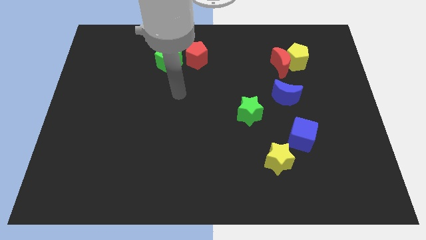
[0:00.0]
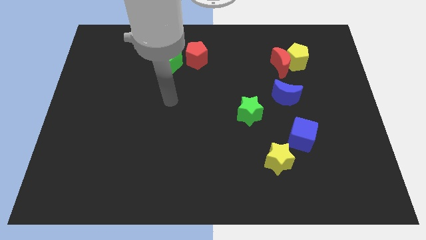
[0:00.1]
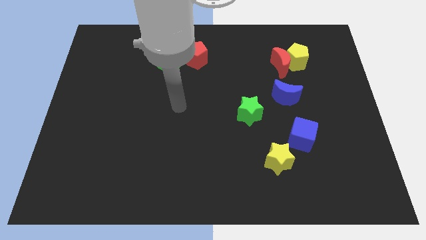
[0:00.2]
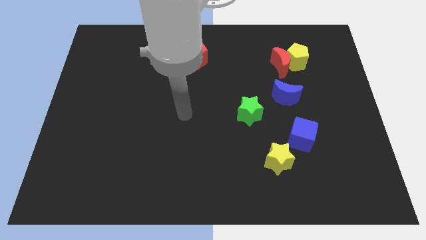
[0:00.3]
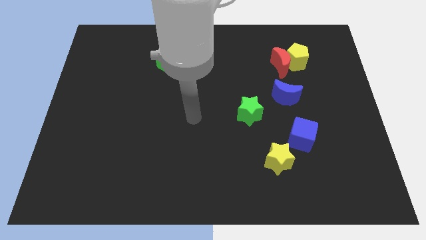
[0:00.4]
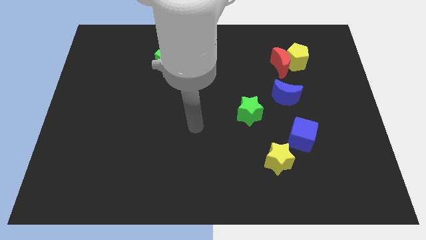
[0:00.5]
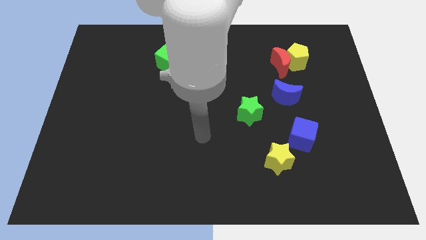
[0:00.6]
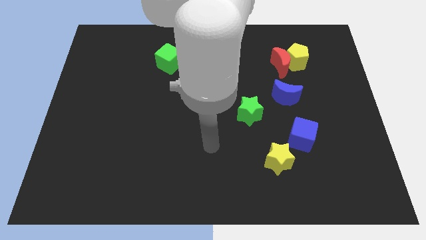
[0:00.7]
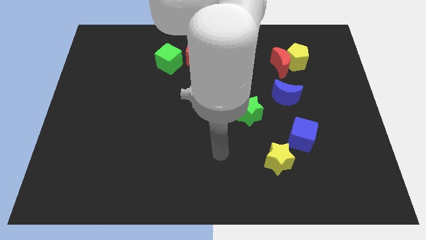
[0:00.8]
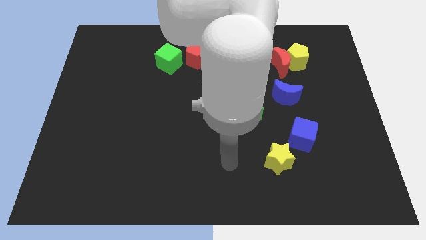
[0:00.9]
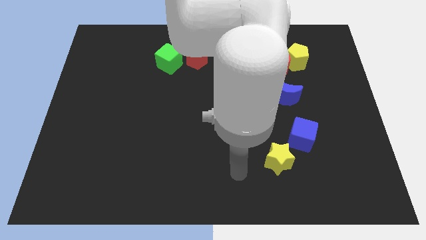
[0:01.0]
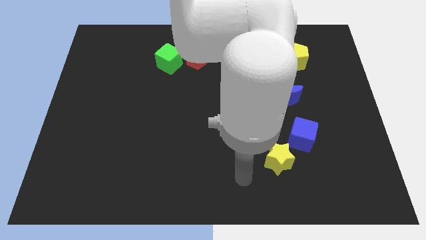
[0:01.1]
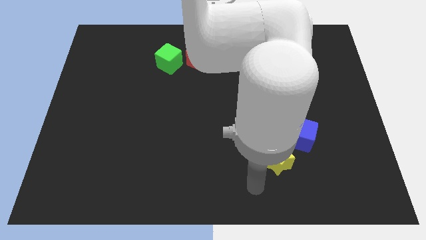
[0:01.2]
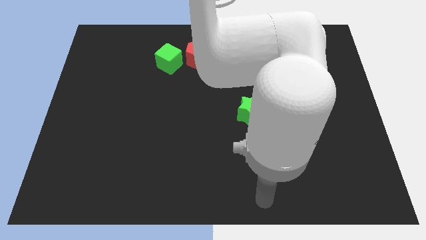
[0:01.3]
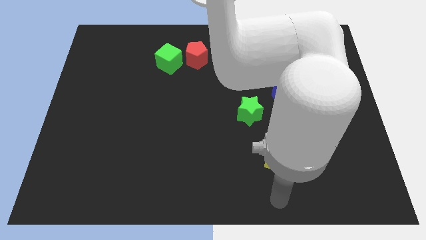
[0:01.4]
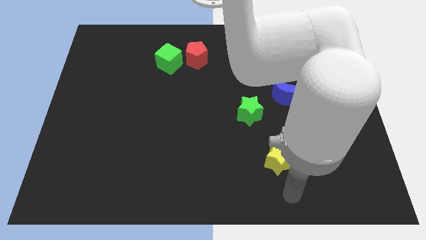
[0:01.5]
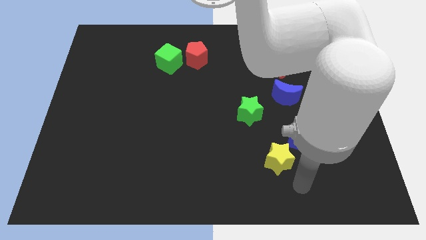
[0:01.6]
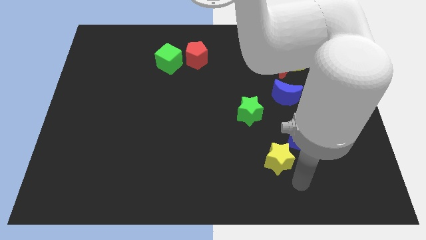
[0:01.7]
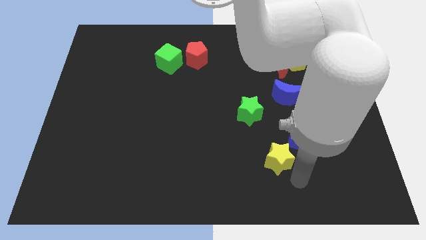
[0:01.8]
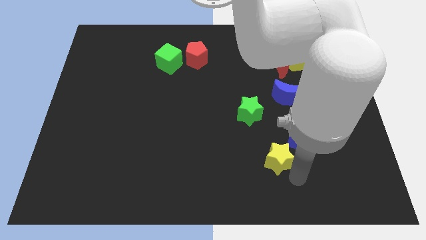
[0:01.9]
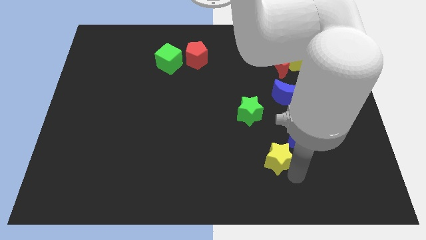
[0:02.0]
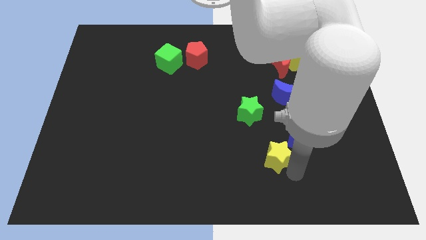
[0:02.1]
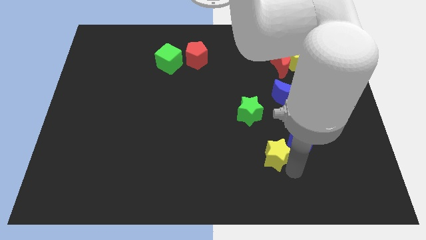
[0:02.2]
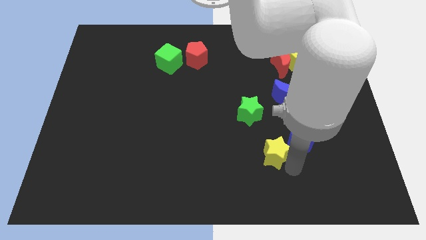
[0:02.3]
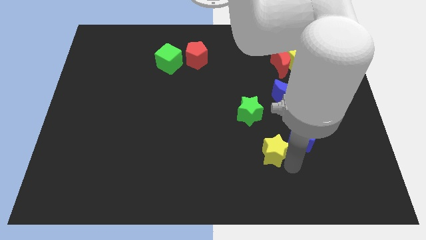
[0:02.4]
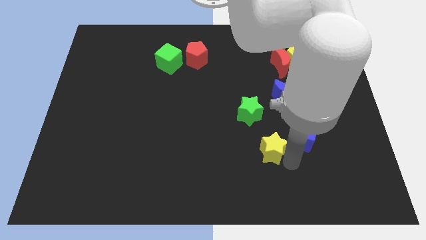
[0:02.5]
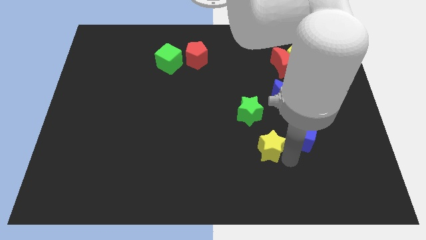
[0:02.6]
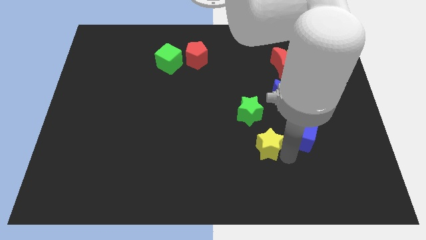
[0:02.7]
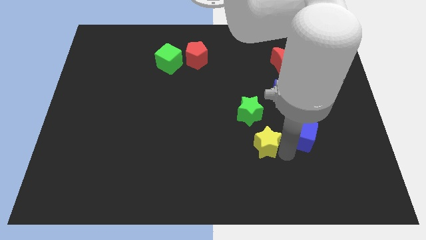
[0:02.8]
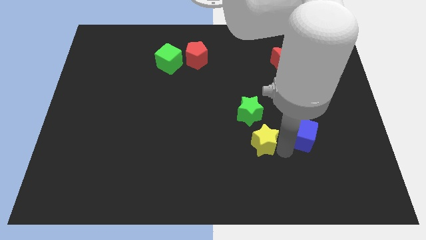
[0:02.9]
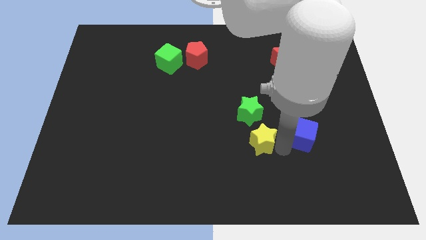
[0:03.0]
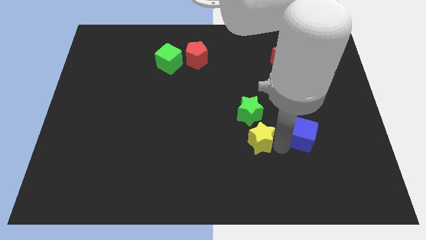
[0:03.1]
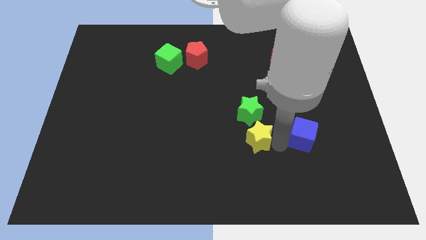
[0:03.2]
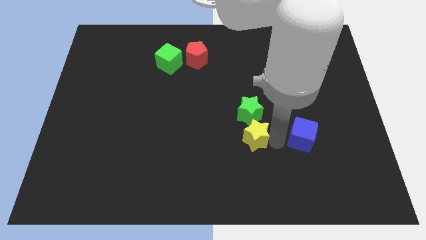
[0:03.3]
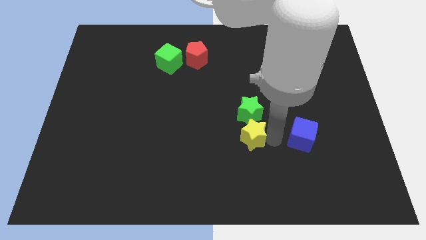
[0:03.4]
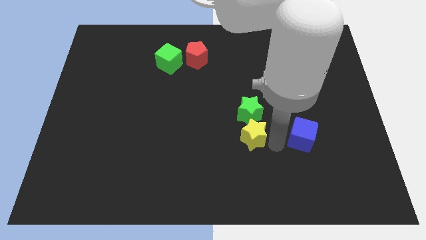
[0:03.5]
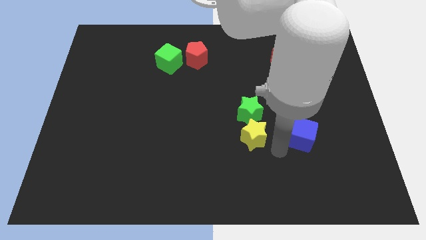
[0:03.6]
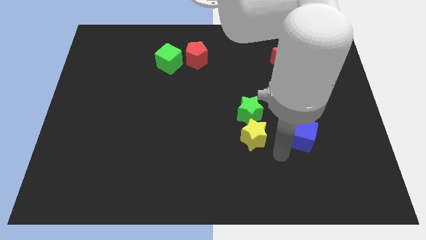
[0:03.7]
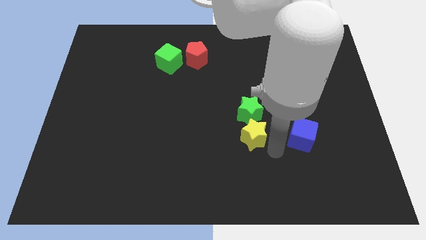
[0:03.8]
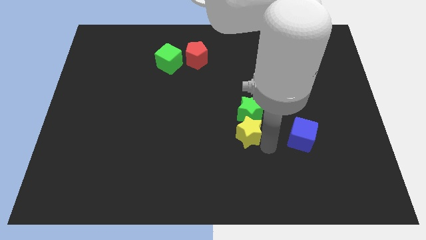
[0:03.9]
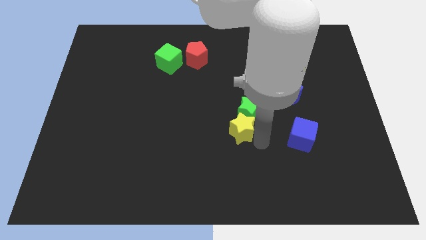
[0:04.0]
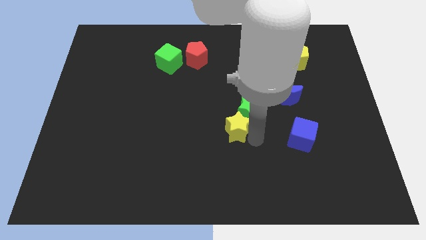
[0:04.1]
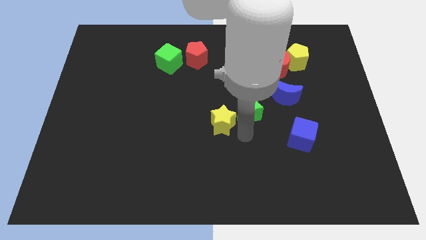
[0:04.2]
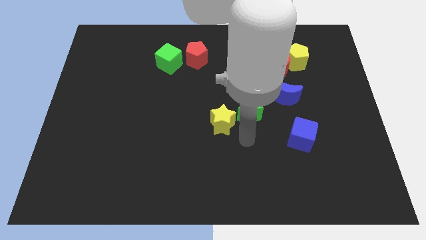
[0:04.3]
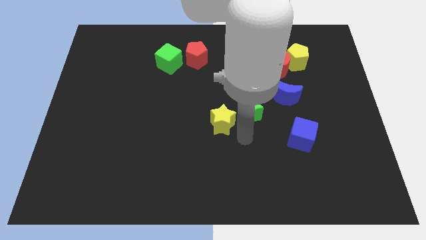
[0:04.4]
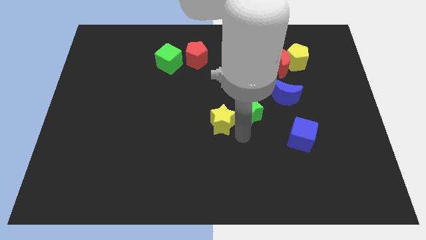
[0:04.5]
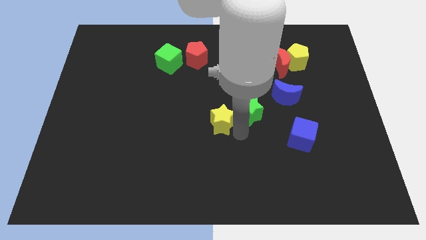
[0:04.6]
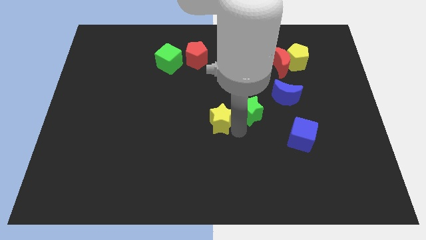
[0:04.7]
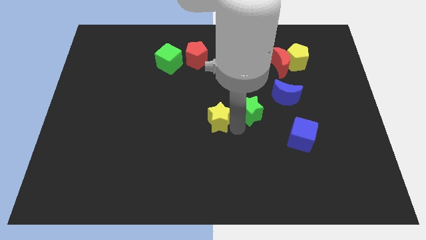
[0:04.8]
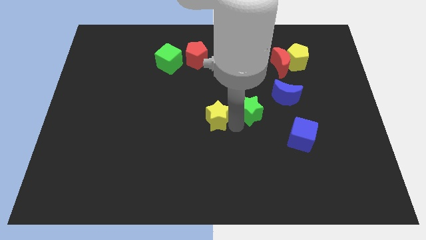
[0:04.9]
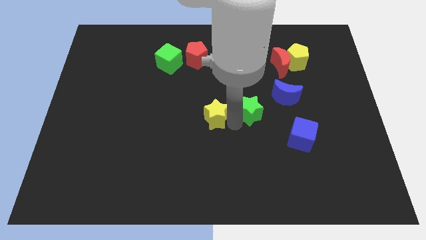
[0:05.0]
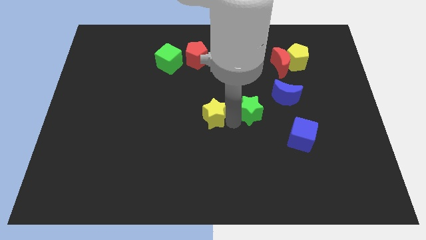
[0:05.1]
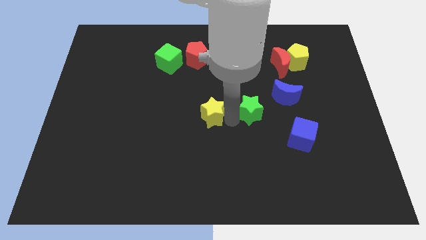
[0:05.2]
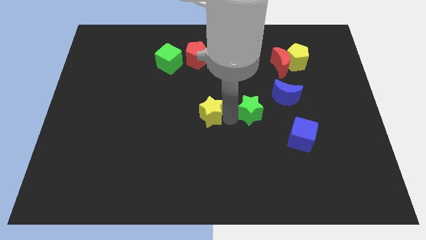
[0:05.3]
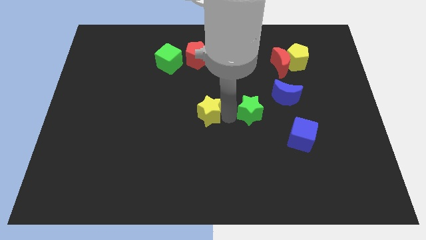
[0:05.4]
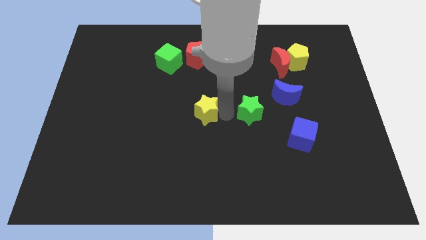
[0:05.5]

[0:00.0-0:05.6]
move the yellow star diagonally up and to the left

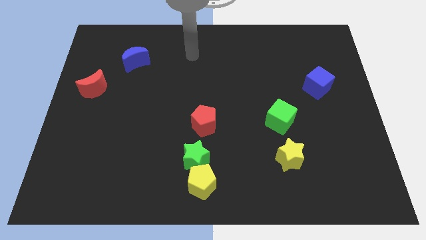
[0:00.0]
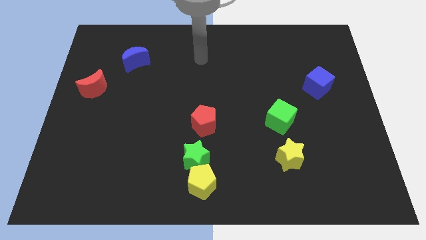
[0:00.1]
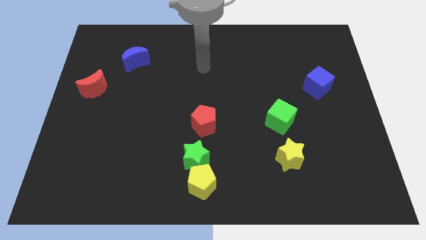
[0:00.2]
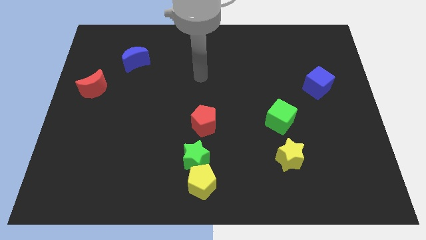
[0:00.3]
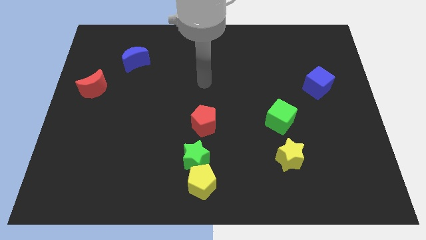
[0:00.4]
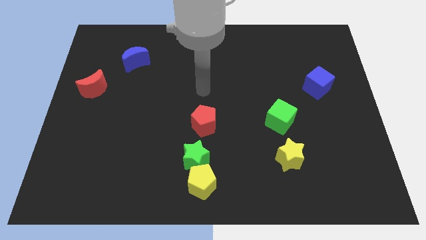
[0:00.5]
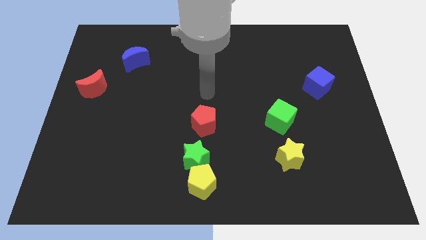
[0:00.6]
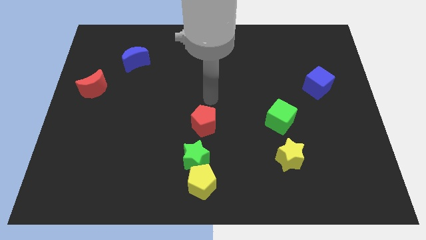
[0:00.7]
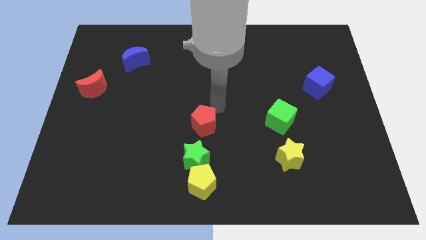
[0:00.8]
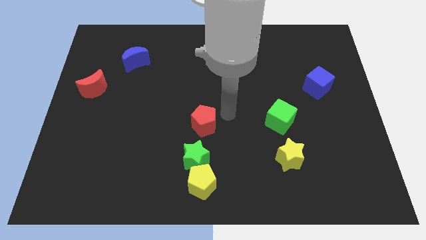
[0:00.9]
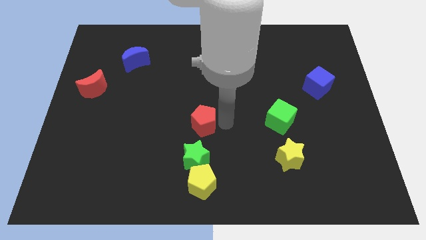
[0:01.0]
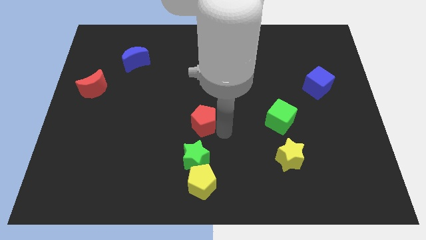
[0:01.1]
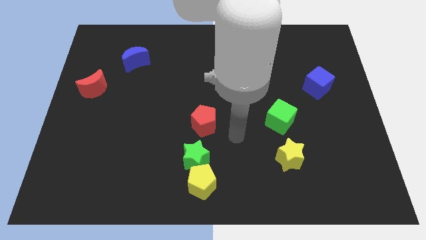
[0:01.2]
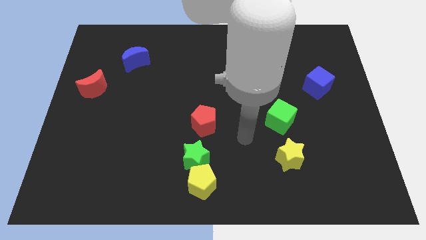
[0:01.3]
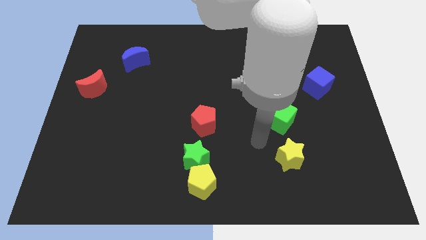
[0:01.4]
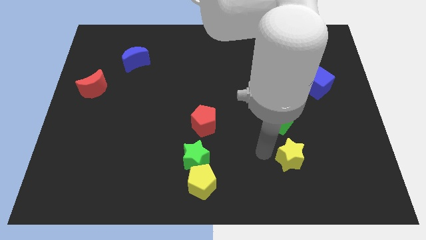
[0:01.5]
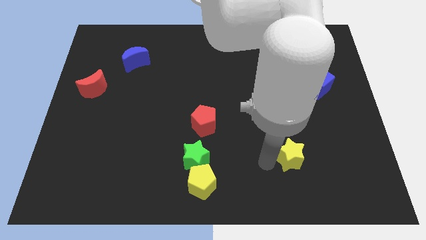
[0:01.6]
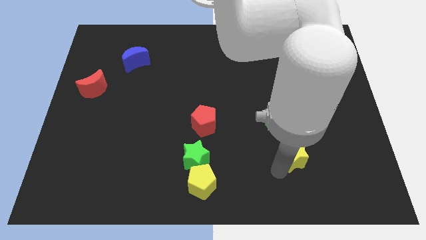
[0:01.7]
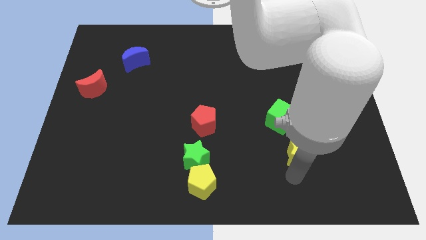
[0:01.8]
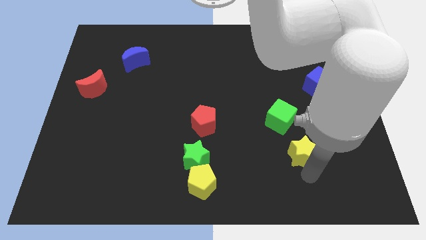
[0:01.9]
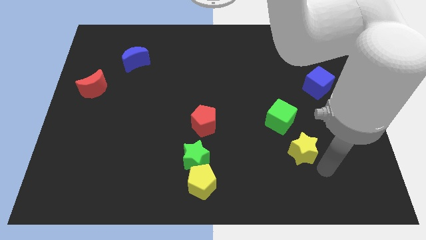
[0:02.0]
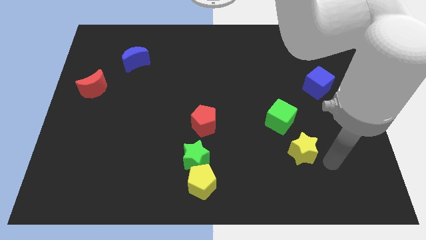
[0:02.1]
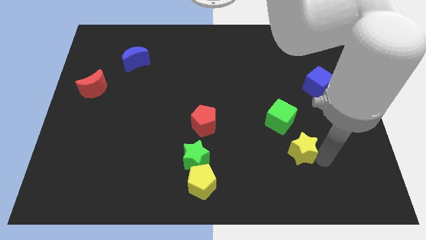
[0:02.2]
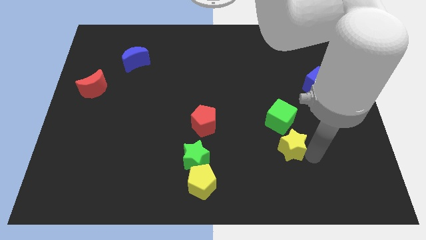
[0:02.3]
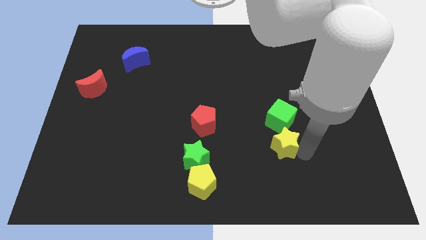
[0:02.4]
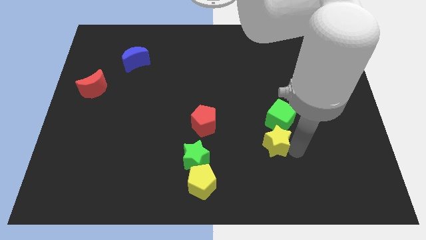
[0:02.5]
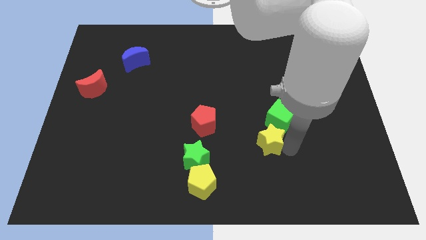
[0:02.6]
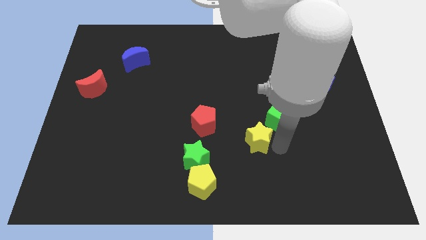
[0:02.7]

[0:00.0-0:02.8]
move the yellow star diagonally up and left somewhat
